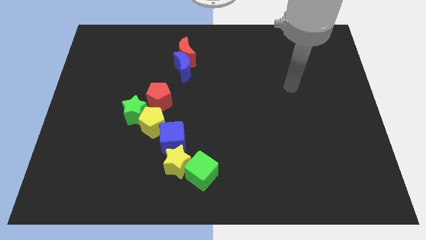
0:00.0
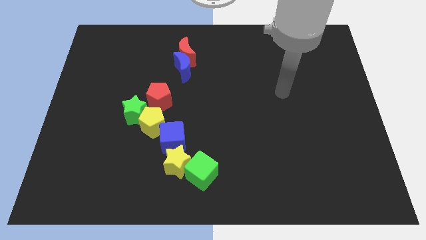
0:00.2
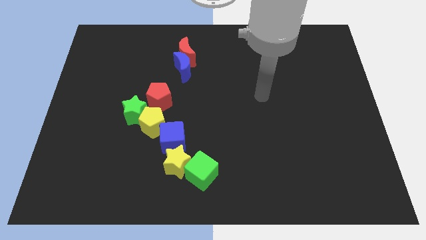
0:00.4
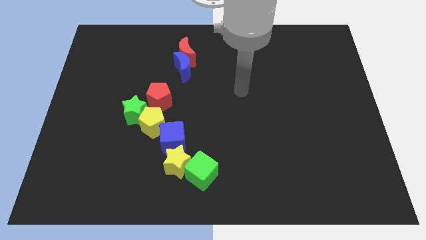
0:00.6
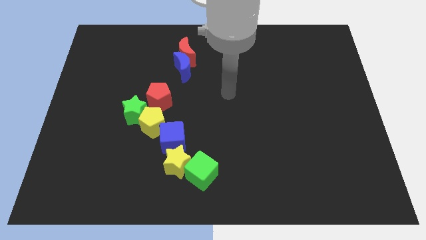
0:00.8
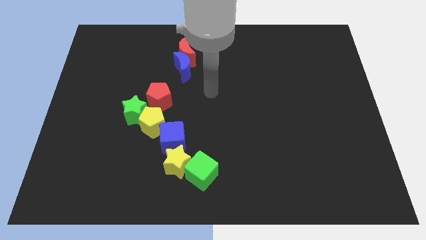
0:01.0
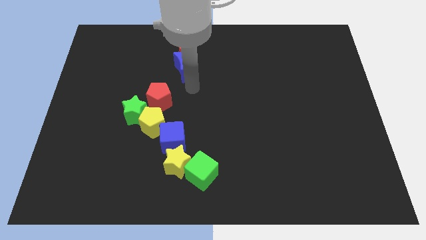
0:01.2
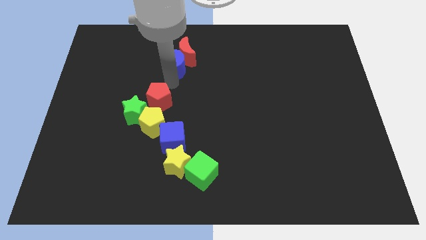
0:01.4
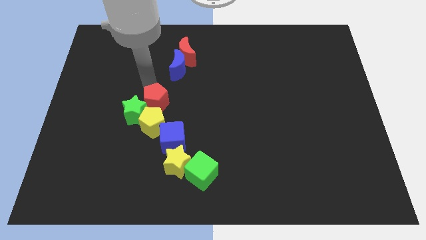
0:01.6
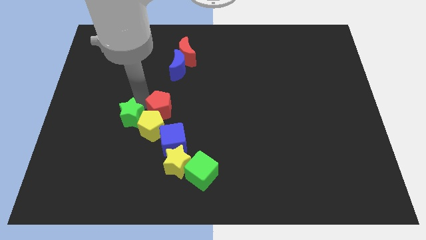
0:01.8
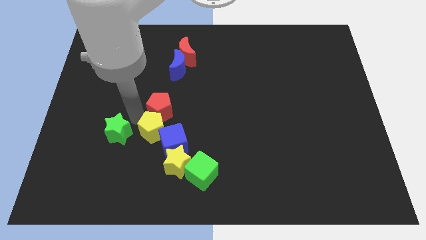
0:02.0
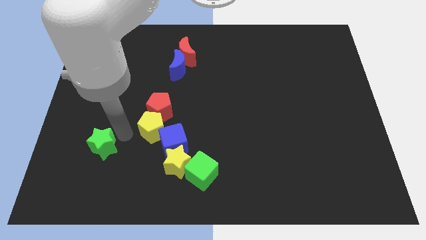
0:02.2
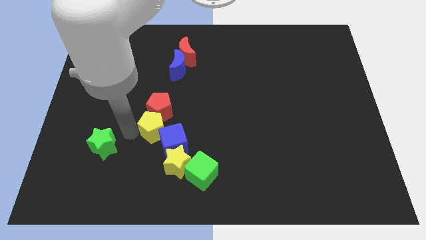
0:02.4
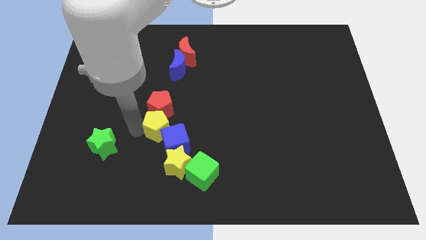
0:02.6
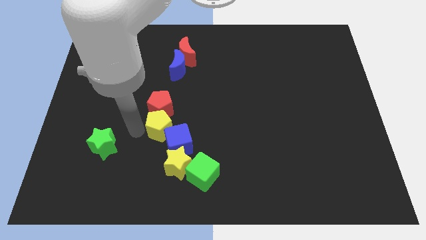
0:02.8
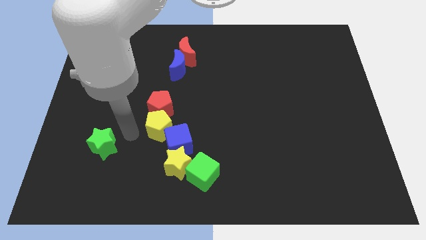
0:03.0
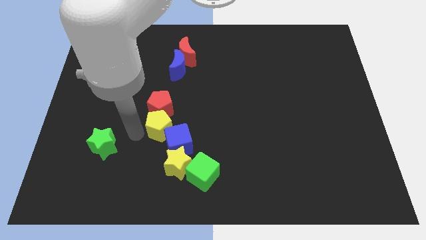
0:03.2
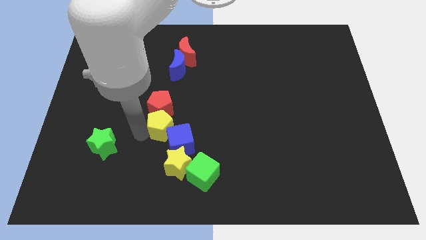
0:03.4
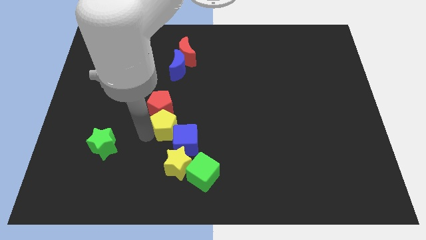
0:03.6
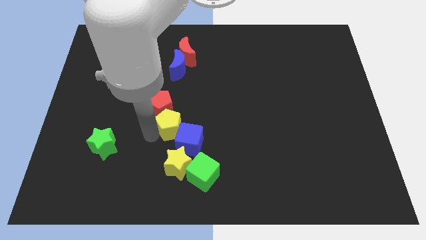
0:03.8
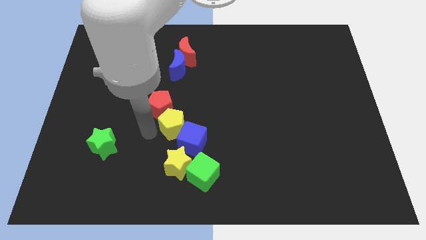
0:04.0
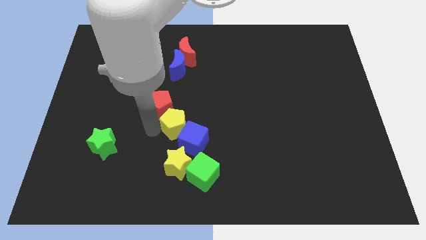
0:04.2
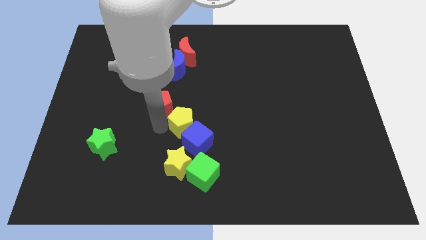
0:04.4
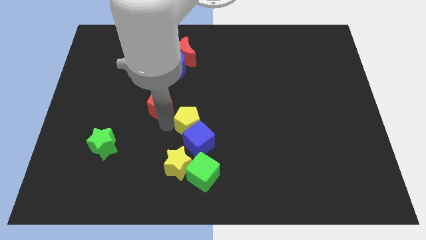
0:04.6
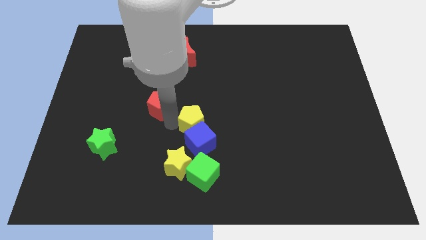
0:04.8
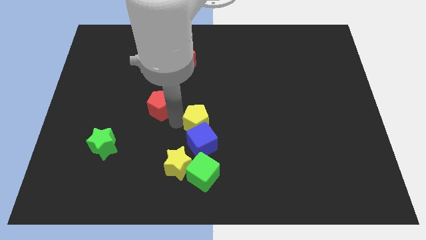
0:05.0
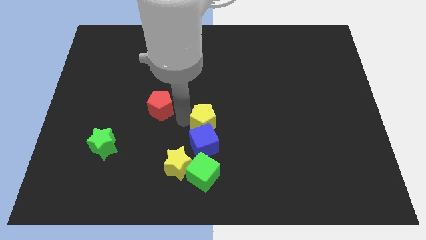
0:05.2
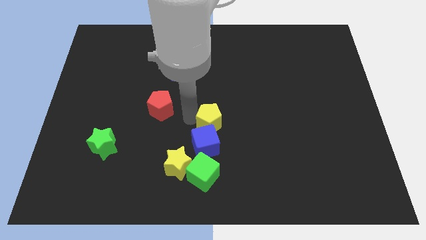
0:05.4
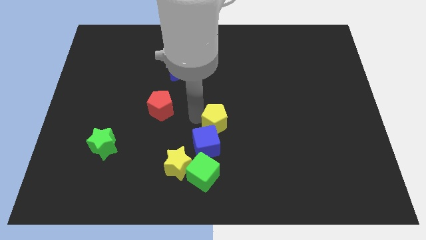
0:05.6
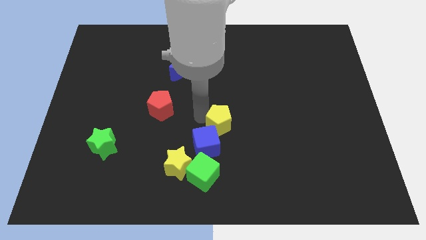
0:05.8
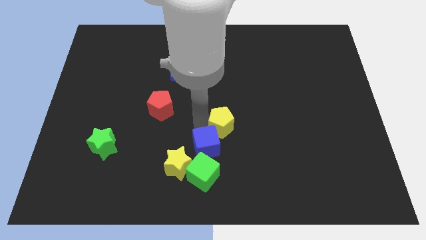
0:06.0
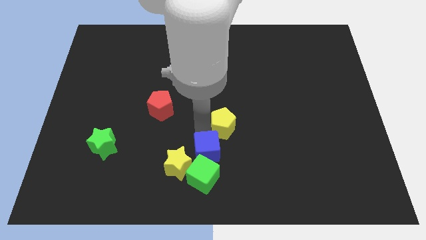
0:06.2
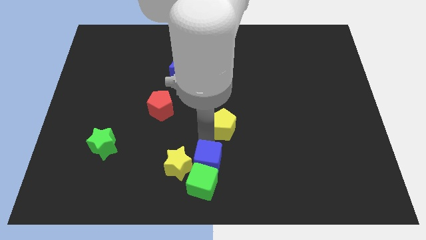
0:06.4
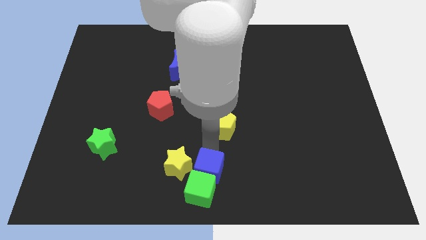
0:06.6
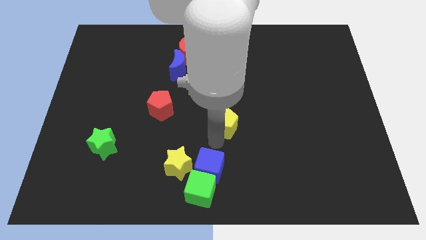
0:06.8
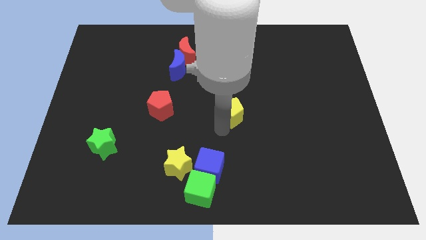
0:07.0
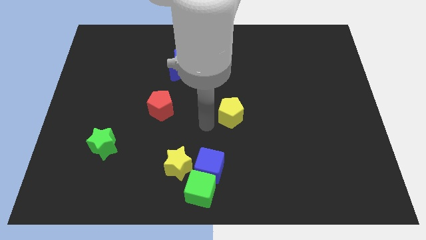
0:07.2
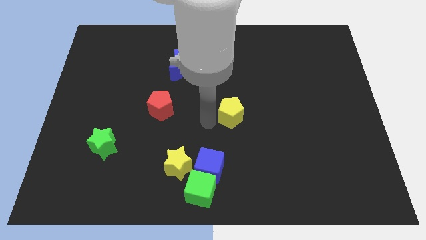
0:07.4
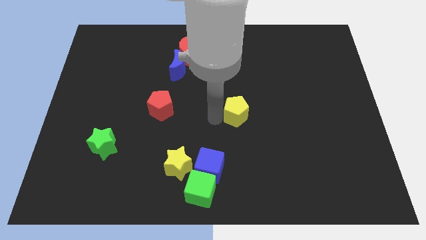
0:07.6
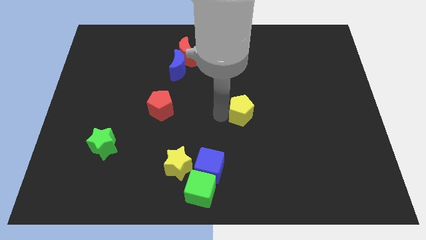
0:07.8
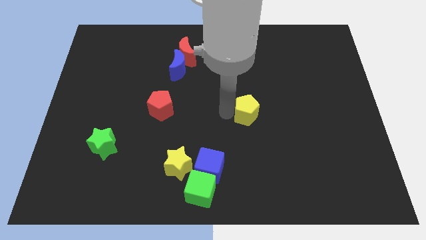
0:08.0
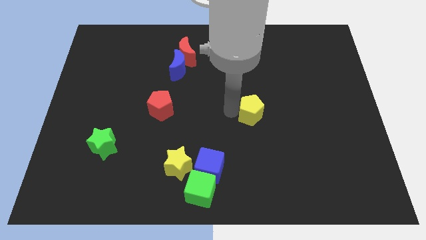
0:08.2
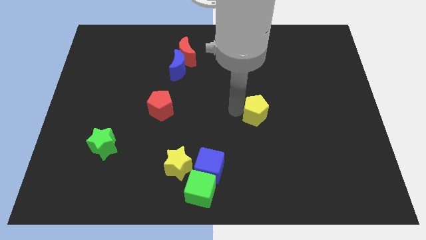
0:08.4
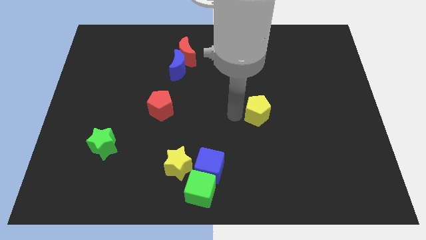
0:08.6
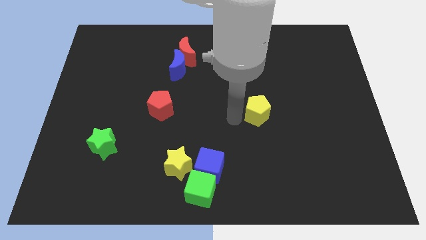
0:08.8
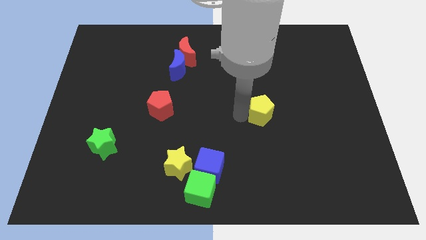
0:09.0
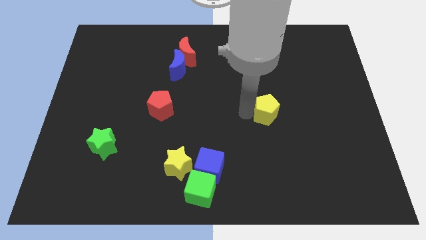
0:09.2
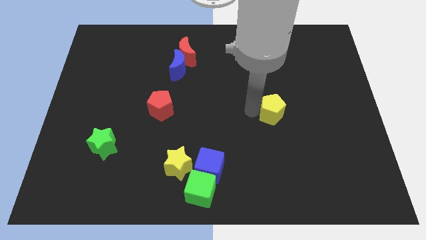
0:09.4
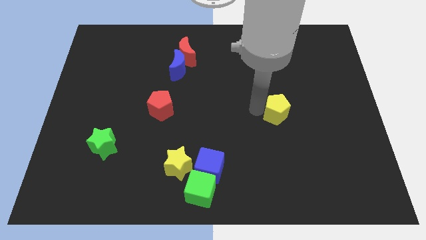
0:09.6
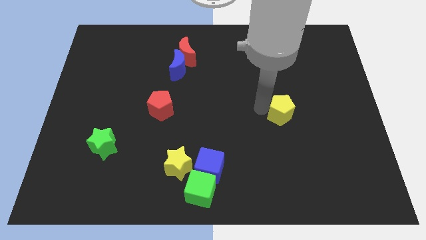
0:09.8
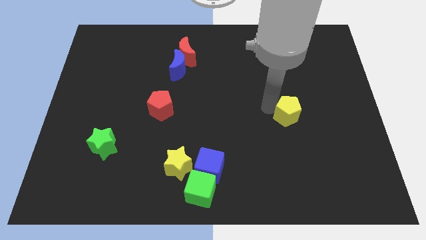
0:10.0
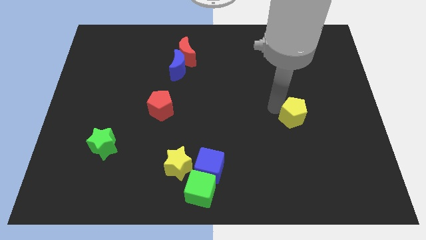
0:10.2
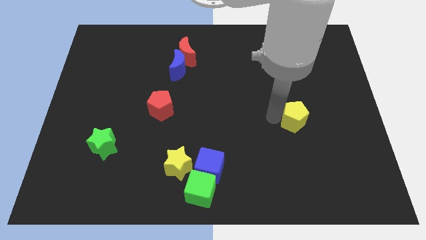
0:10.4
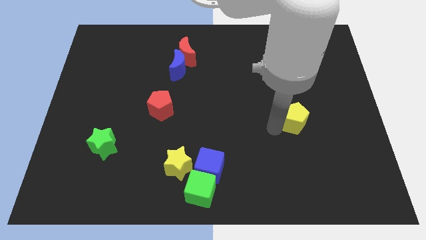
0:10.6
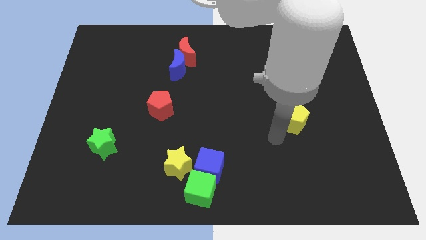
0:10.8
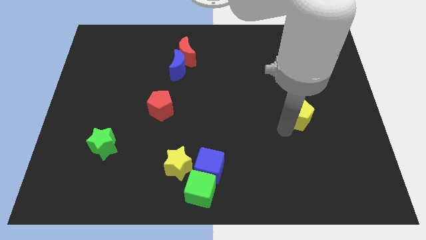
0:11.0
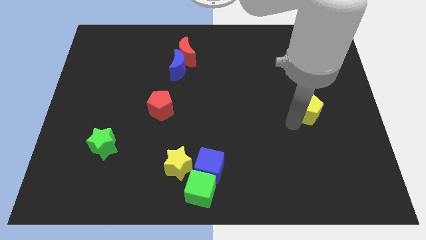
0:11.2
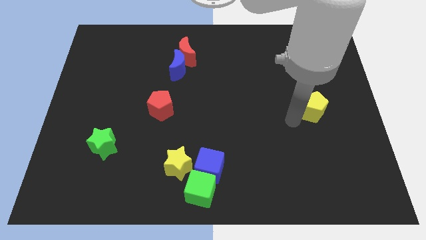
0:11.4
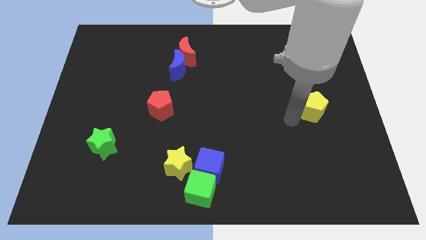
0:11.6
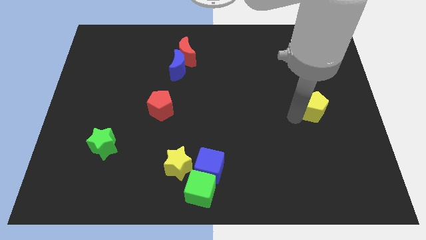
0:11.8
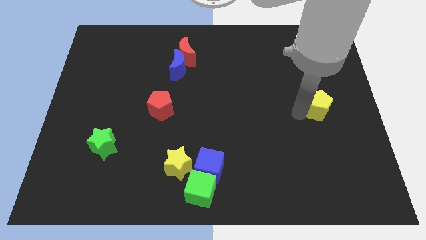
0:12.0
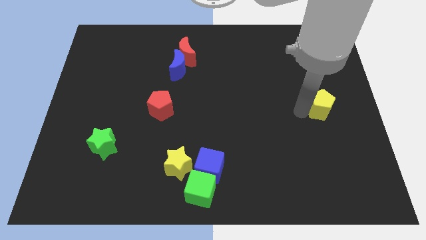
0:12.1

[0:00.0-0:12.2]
move the yellow pentagon to the right side

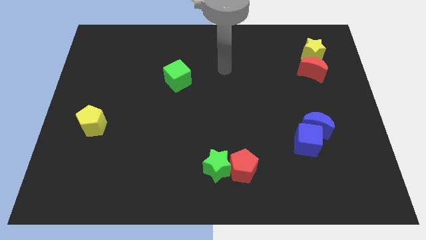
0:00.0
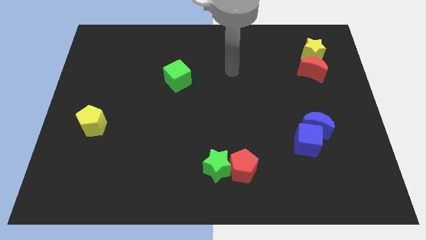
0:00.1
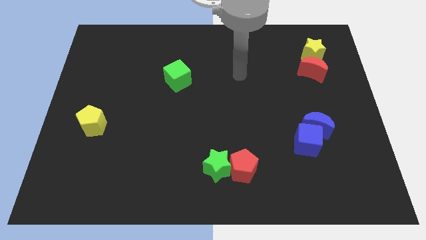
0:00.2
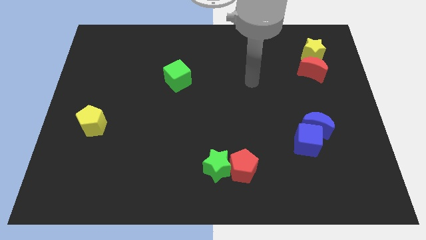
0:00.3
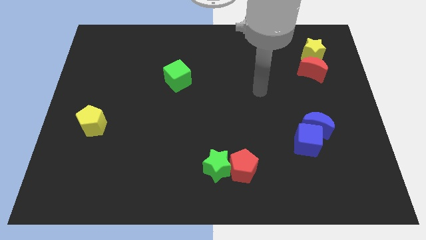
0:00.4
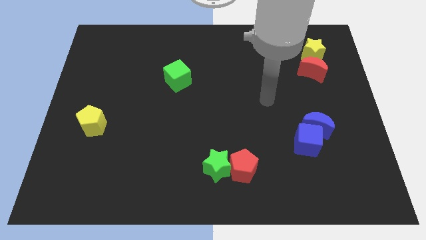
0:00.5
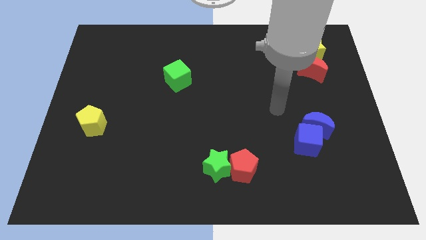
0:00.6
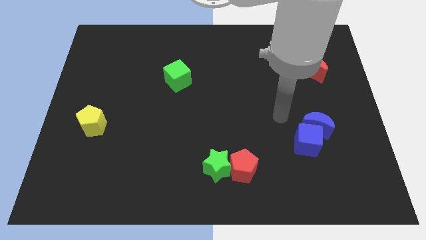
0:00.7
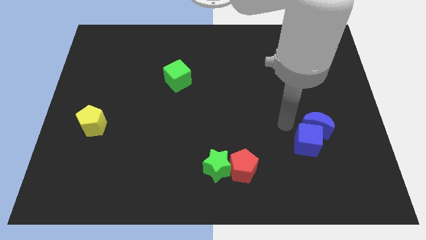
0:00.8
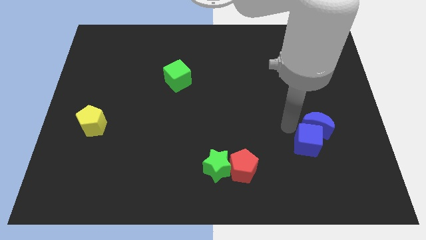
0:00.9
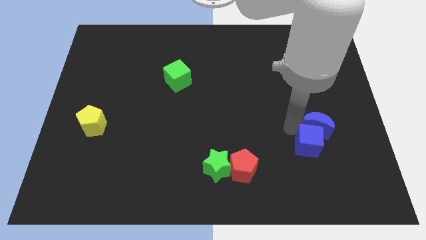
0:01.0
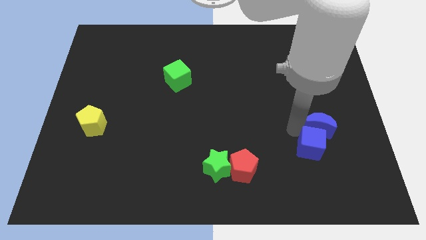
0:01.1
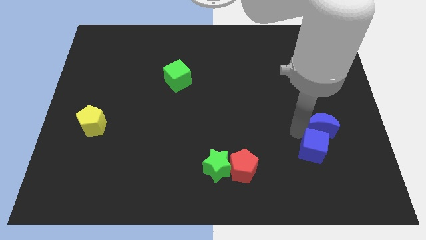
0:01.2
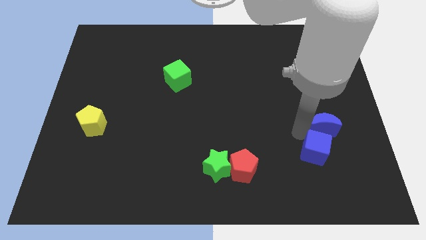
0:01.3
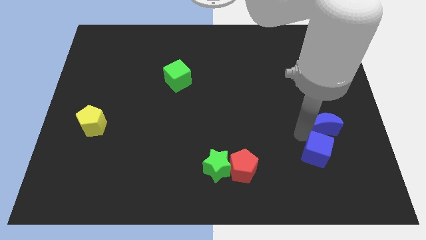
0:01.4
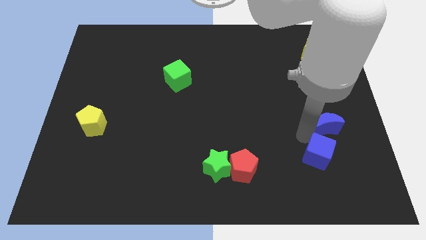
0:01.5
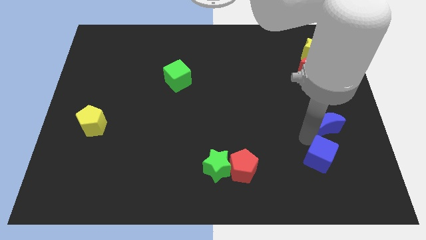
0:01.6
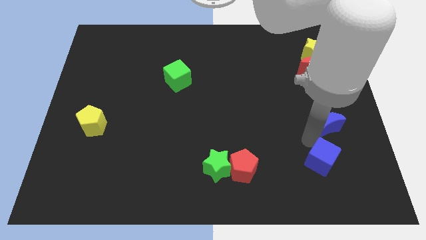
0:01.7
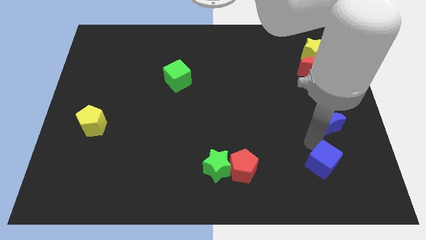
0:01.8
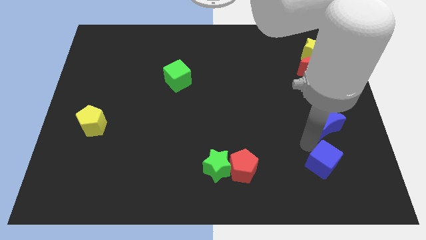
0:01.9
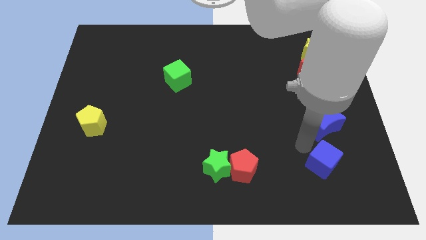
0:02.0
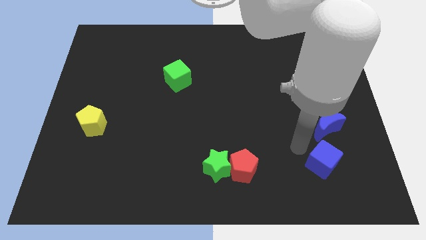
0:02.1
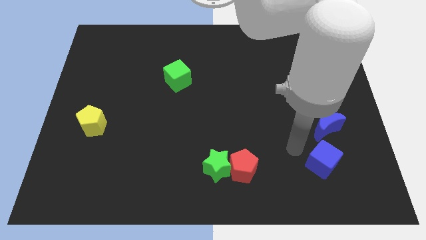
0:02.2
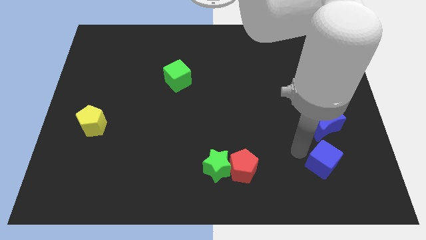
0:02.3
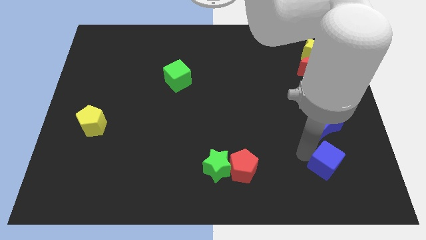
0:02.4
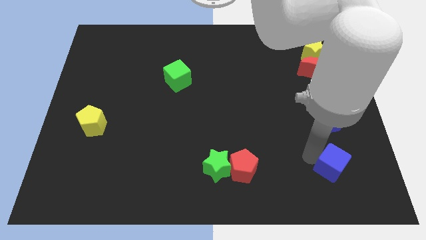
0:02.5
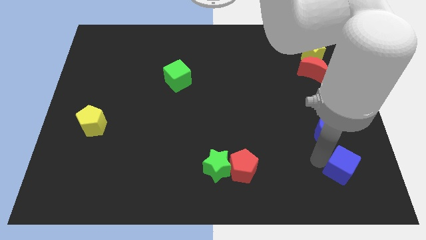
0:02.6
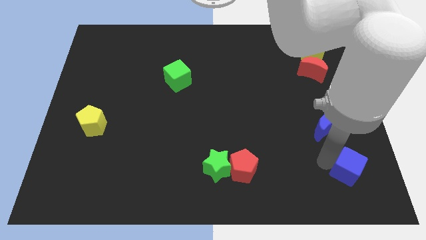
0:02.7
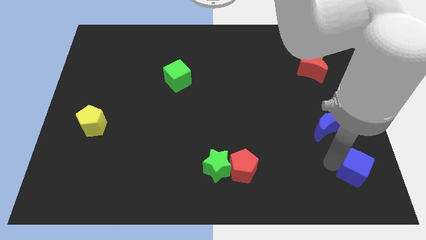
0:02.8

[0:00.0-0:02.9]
slide the blue cube to the lower right corner
